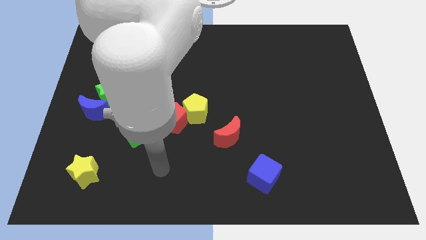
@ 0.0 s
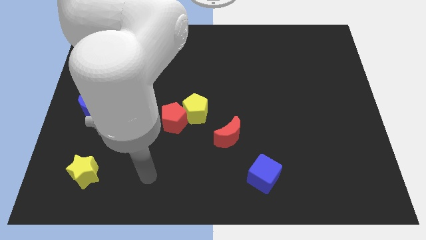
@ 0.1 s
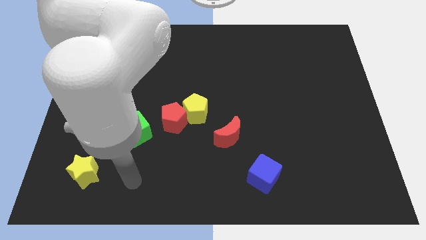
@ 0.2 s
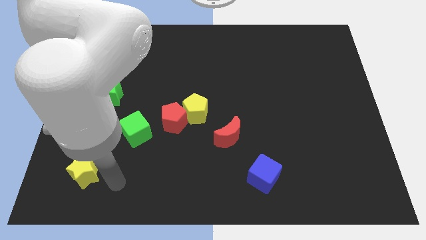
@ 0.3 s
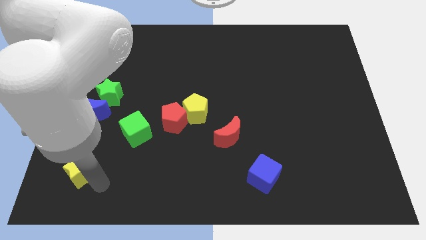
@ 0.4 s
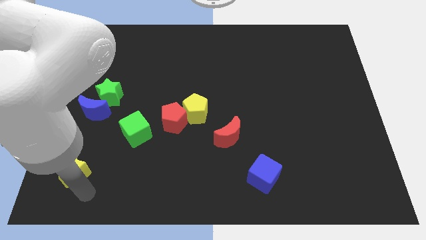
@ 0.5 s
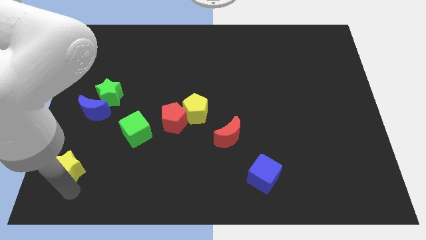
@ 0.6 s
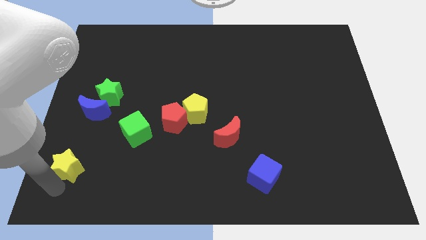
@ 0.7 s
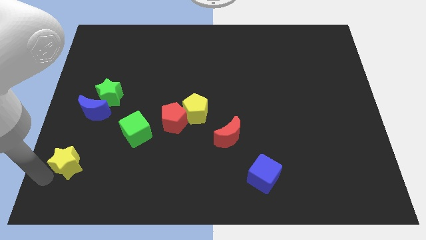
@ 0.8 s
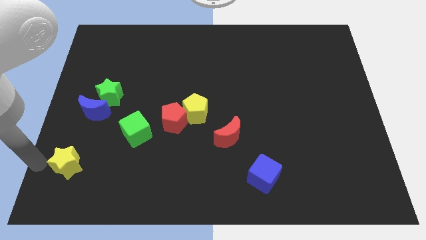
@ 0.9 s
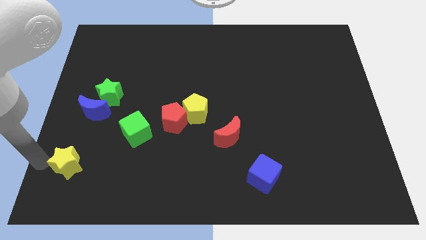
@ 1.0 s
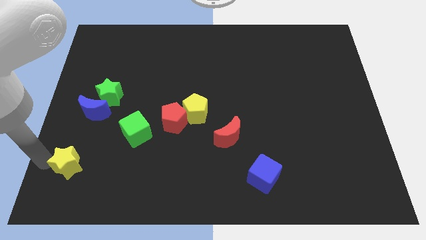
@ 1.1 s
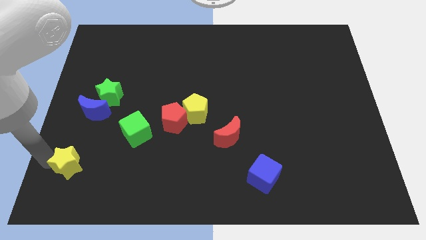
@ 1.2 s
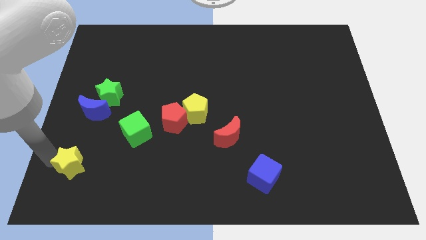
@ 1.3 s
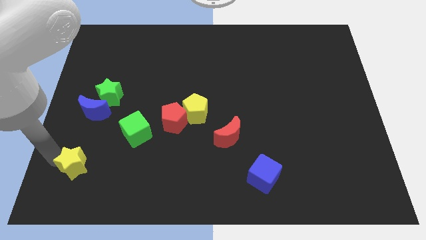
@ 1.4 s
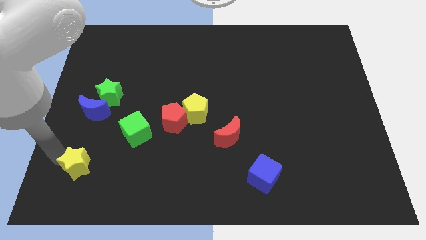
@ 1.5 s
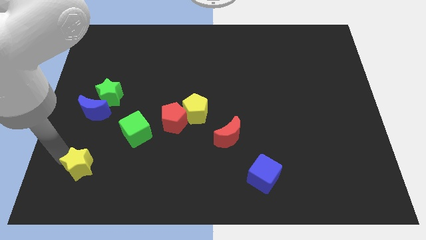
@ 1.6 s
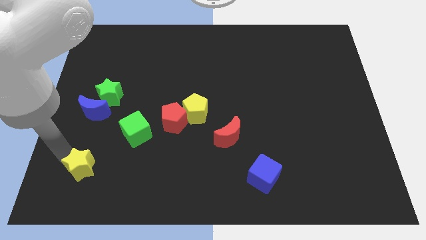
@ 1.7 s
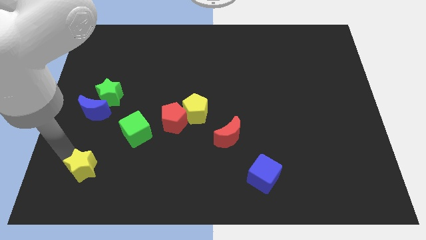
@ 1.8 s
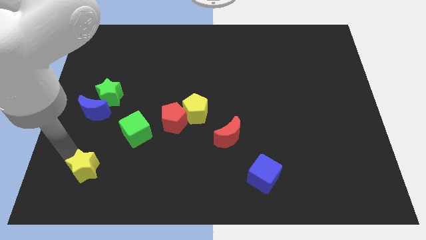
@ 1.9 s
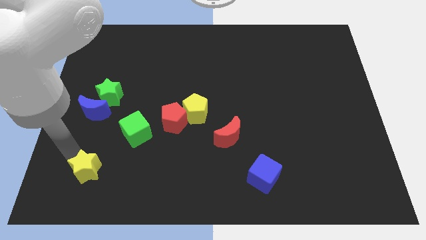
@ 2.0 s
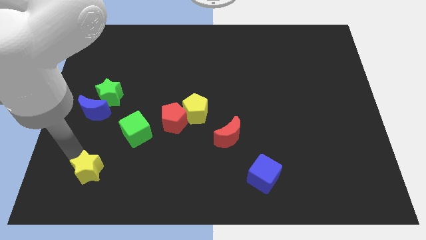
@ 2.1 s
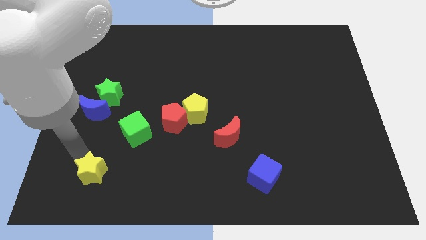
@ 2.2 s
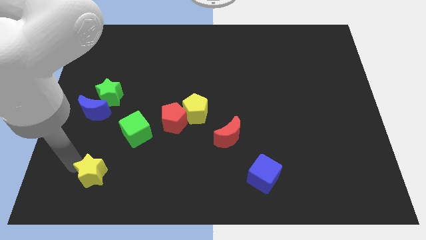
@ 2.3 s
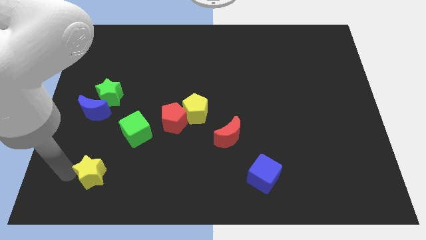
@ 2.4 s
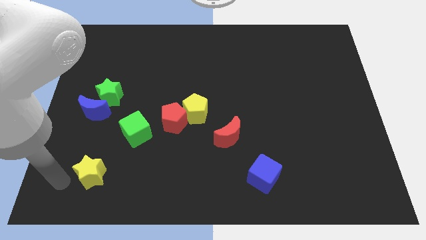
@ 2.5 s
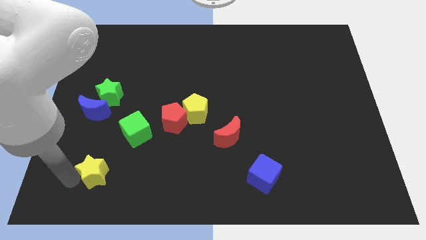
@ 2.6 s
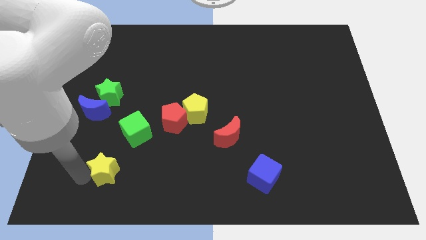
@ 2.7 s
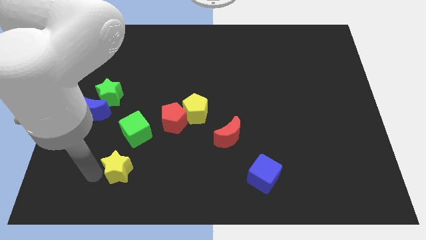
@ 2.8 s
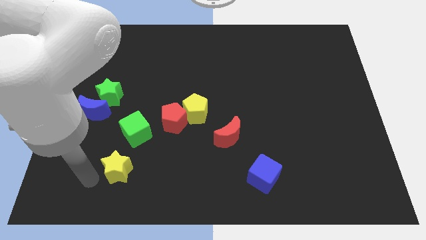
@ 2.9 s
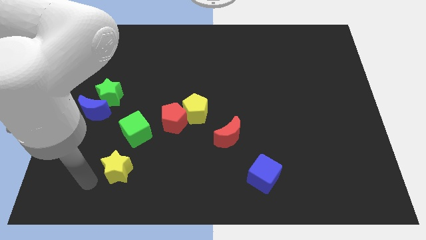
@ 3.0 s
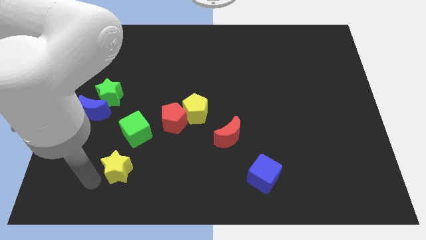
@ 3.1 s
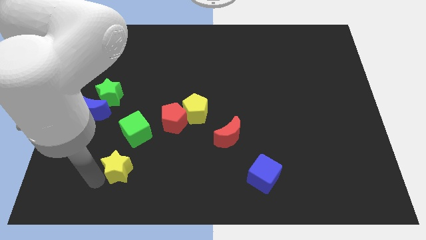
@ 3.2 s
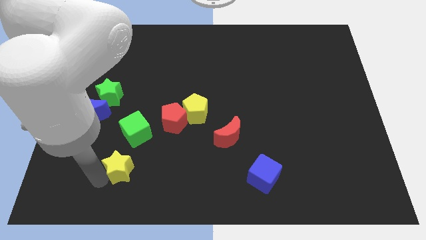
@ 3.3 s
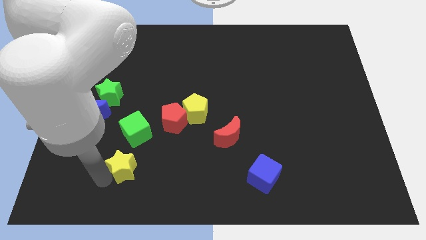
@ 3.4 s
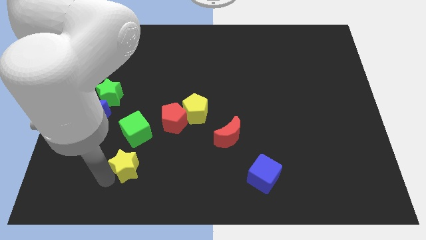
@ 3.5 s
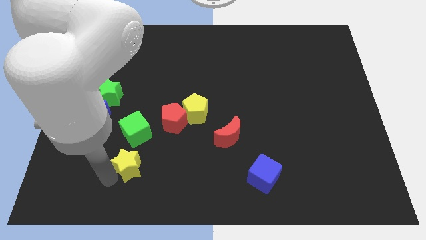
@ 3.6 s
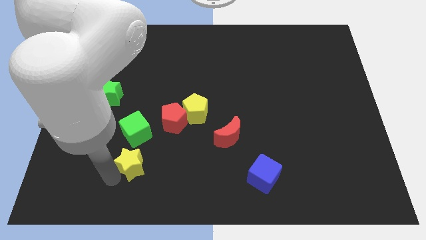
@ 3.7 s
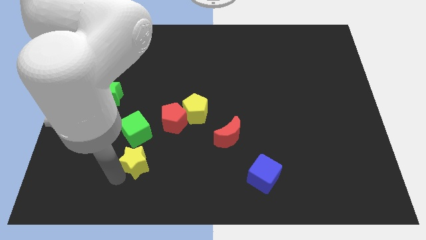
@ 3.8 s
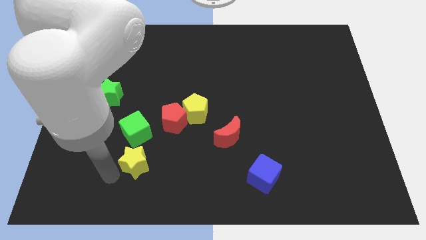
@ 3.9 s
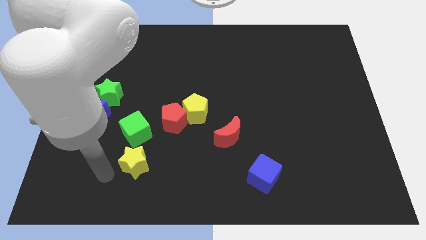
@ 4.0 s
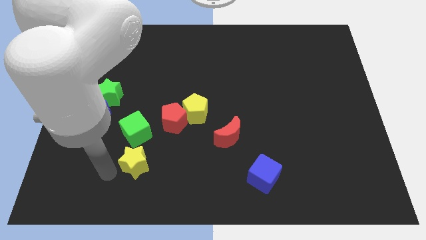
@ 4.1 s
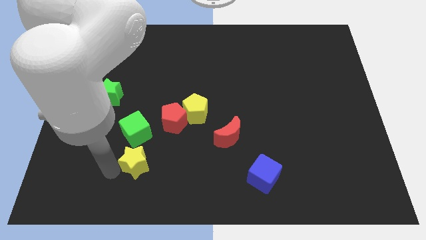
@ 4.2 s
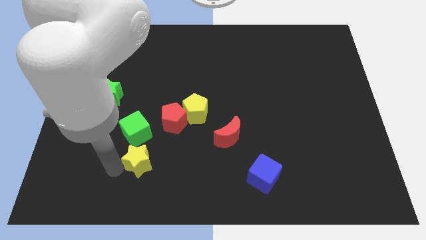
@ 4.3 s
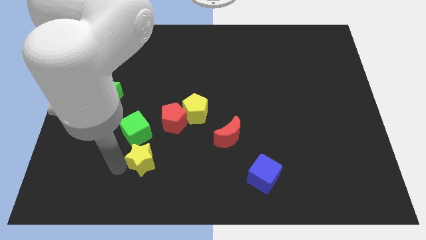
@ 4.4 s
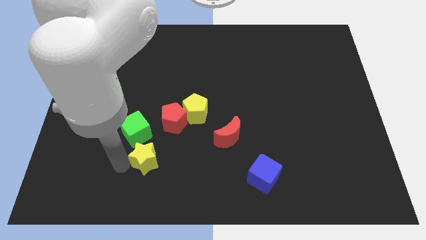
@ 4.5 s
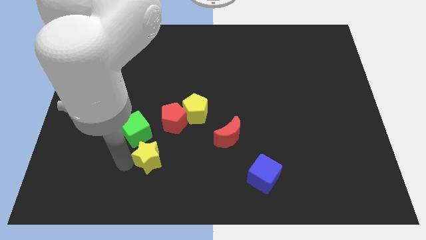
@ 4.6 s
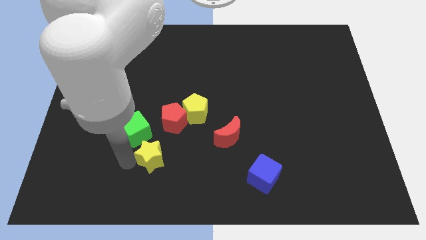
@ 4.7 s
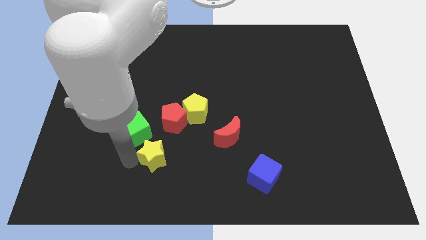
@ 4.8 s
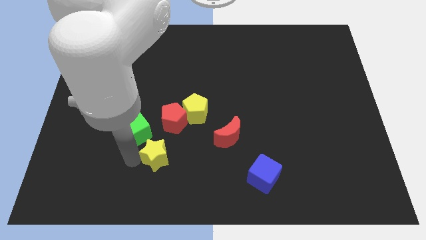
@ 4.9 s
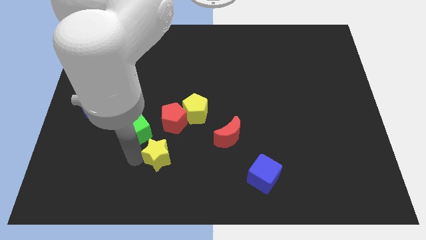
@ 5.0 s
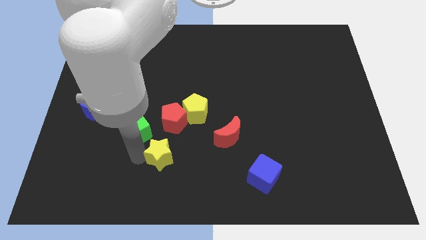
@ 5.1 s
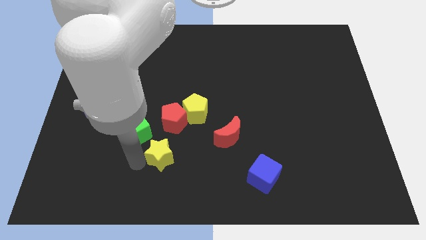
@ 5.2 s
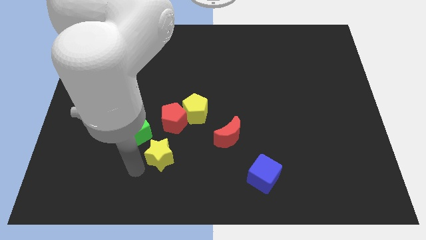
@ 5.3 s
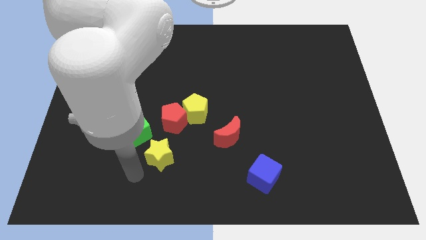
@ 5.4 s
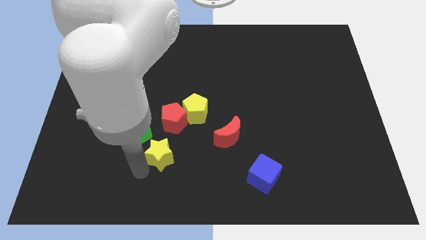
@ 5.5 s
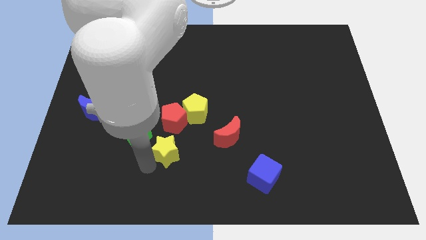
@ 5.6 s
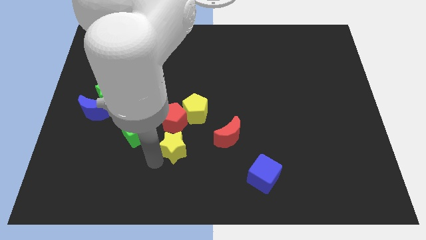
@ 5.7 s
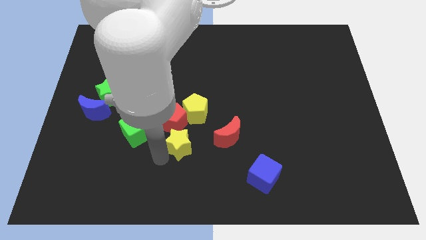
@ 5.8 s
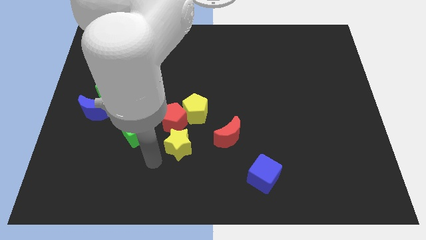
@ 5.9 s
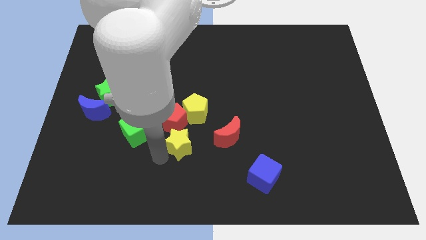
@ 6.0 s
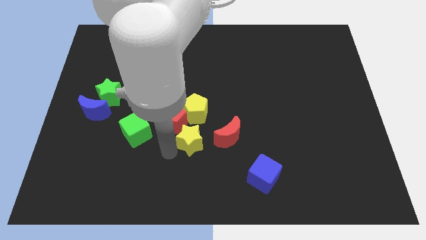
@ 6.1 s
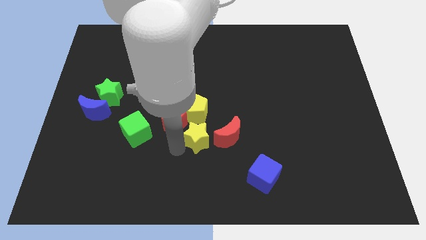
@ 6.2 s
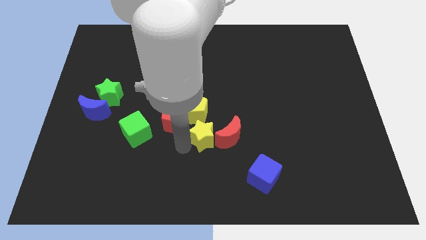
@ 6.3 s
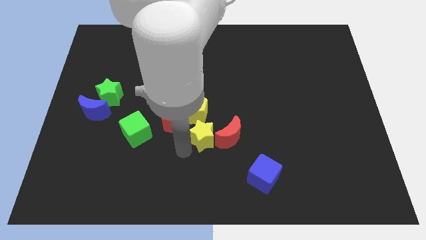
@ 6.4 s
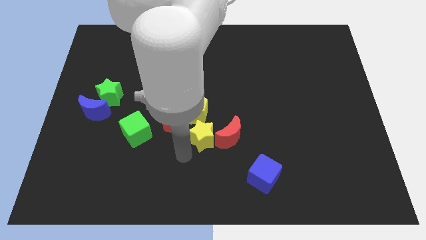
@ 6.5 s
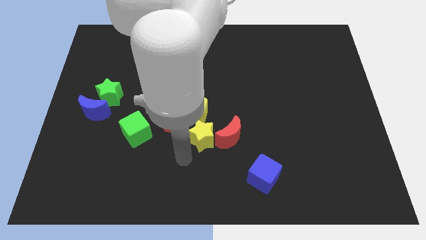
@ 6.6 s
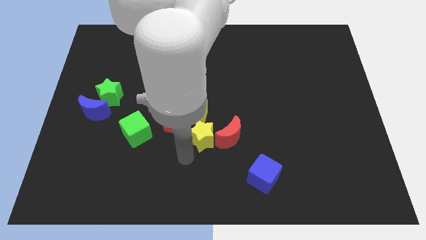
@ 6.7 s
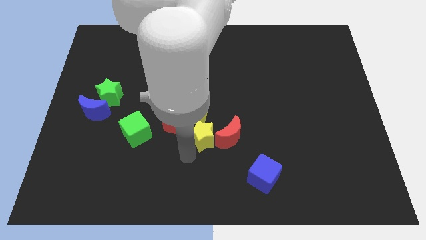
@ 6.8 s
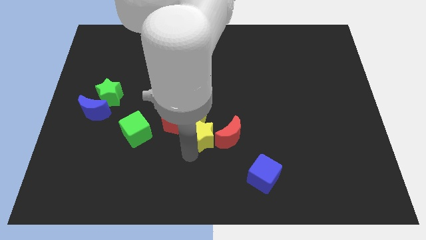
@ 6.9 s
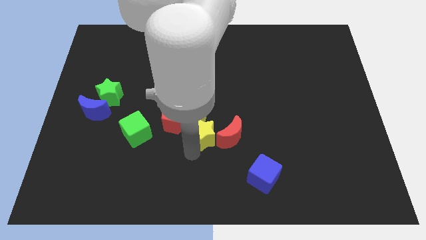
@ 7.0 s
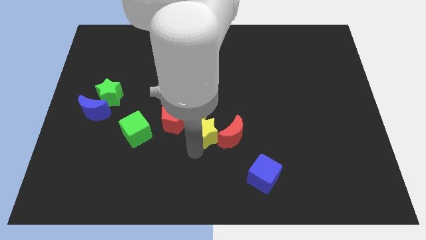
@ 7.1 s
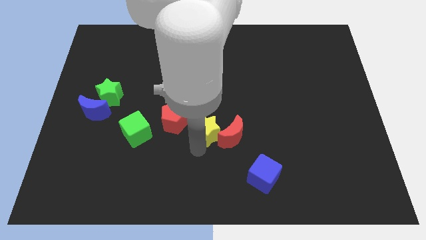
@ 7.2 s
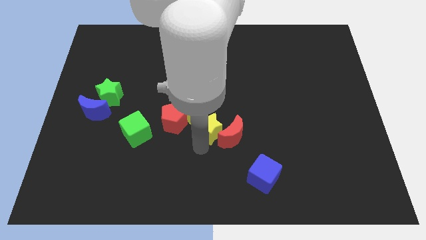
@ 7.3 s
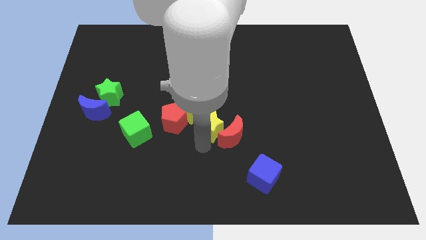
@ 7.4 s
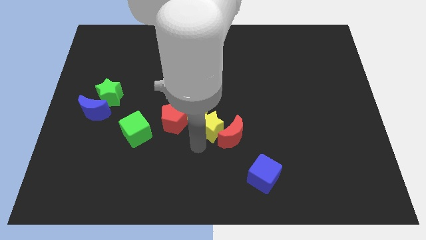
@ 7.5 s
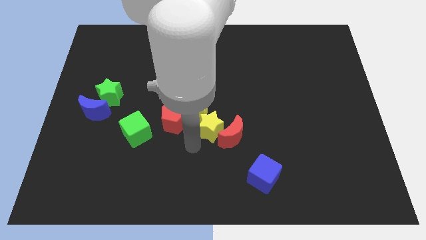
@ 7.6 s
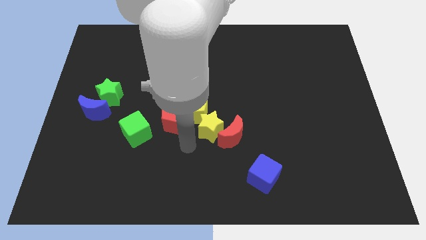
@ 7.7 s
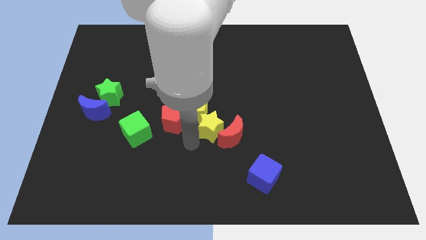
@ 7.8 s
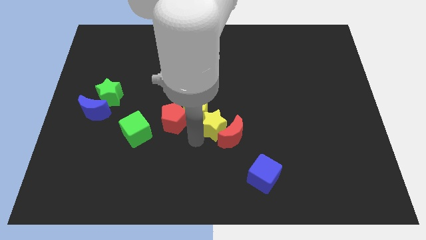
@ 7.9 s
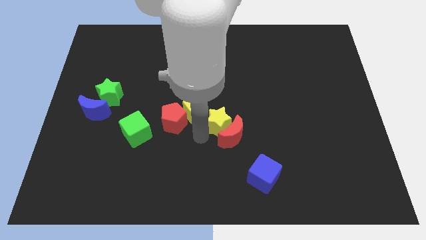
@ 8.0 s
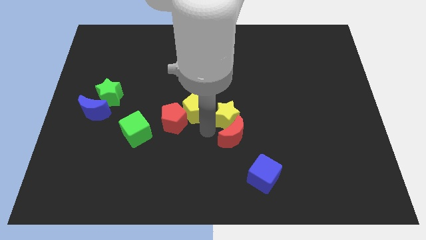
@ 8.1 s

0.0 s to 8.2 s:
push the yellow star to the top right side of the red moon
